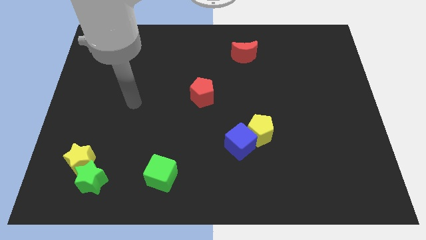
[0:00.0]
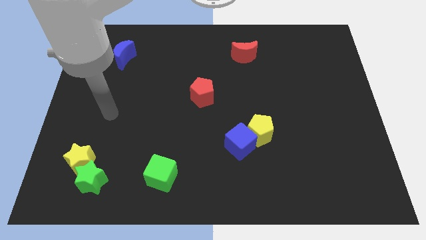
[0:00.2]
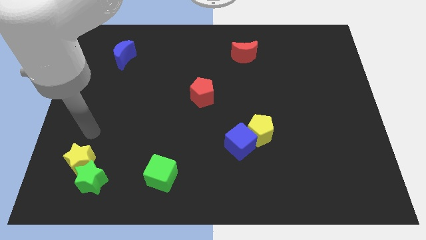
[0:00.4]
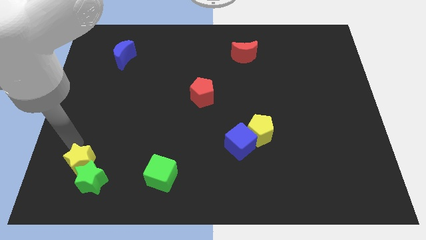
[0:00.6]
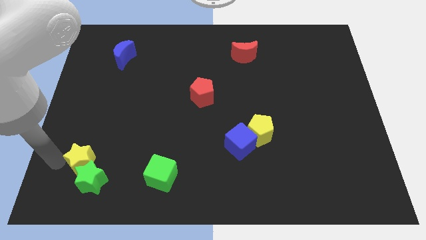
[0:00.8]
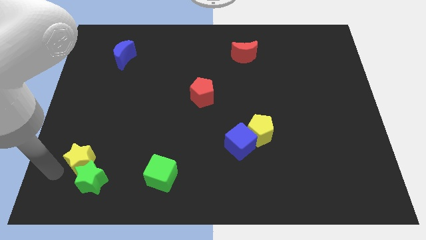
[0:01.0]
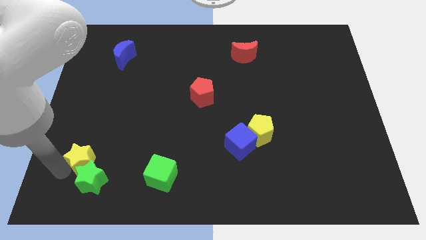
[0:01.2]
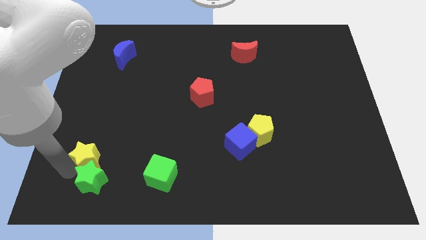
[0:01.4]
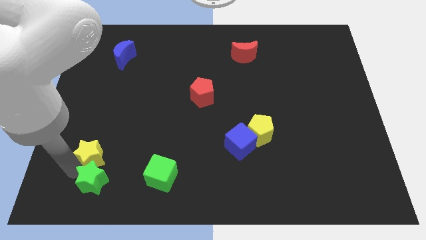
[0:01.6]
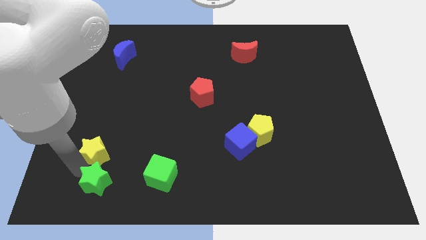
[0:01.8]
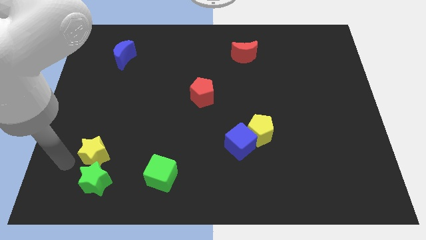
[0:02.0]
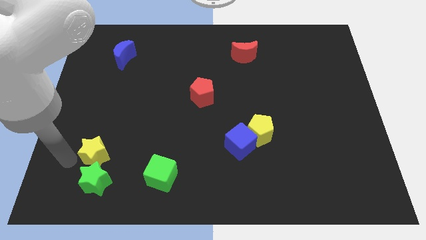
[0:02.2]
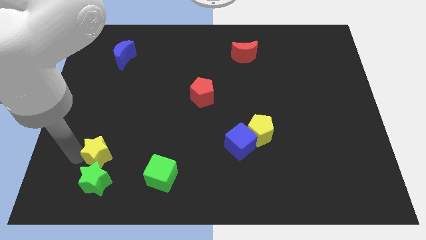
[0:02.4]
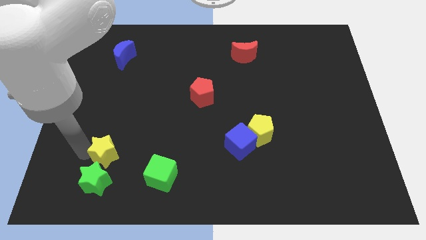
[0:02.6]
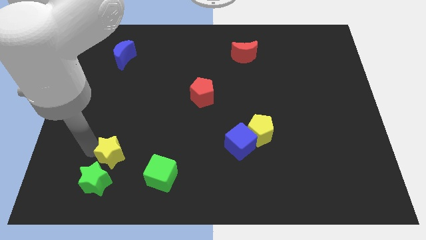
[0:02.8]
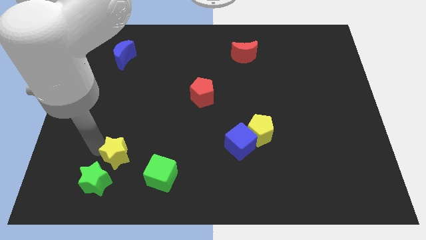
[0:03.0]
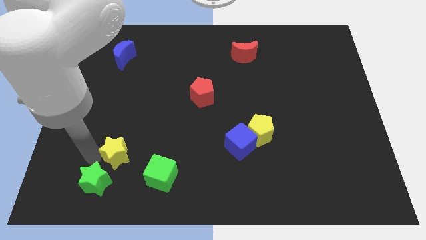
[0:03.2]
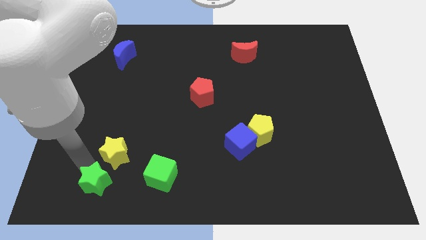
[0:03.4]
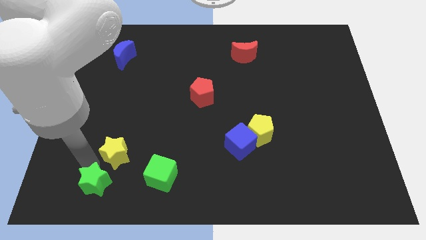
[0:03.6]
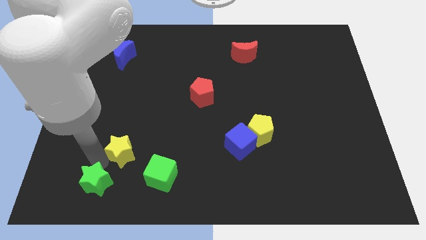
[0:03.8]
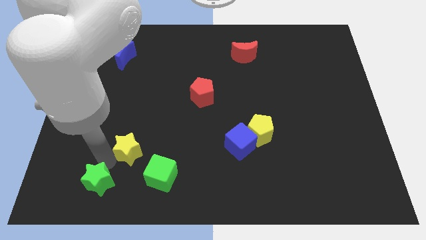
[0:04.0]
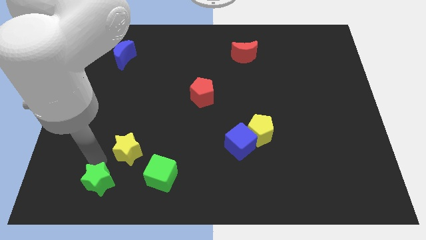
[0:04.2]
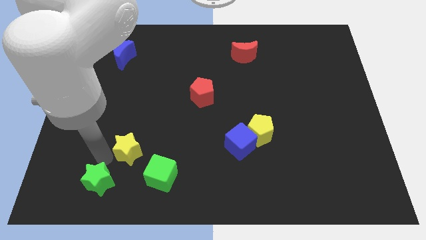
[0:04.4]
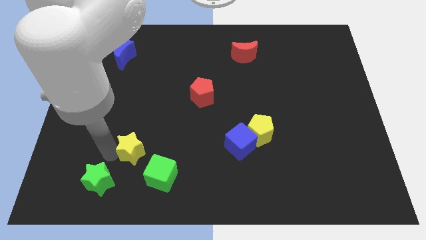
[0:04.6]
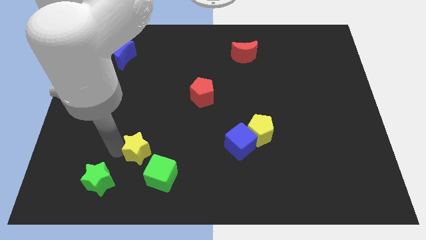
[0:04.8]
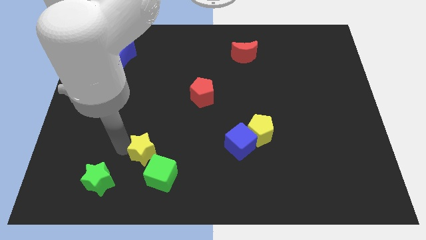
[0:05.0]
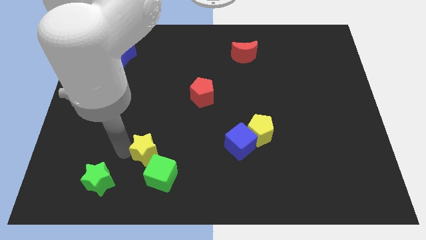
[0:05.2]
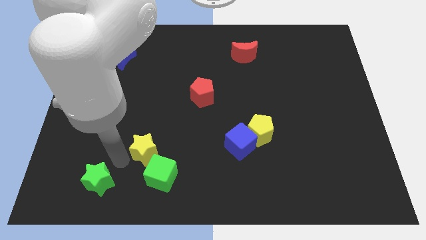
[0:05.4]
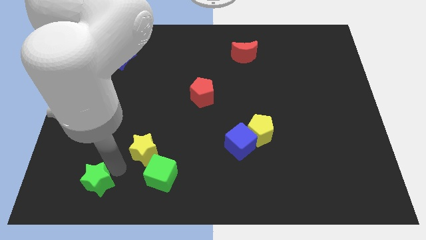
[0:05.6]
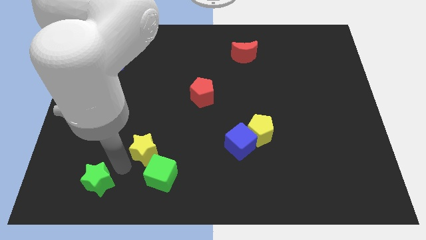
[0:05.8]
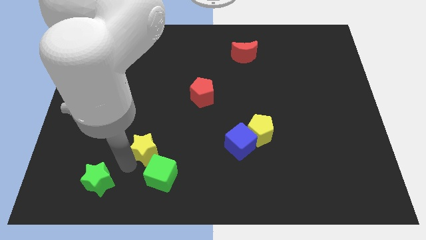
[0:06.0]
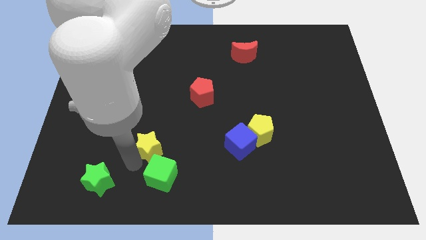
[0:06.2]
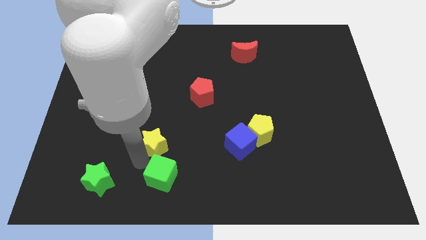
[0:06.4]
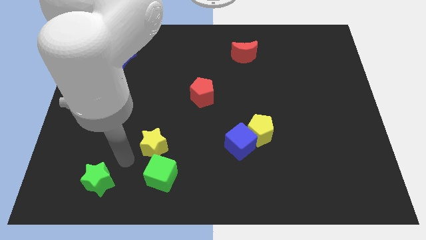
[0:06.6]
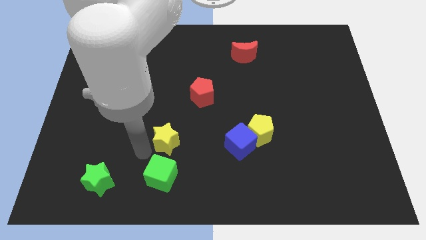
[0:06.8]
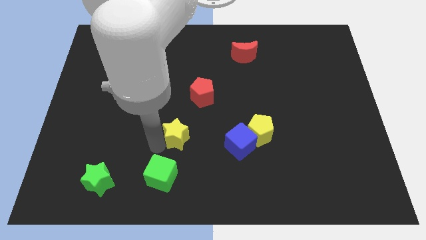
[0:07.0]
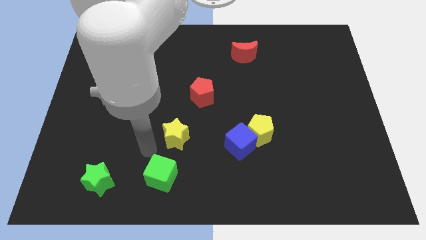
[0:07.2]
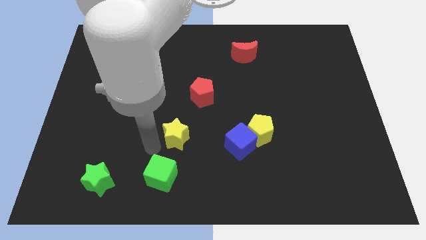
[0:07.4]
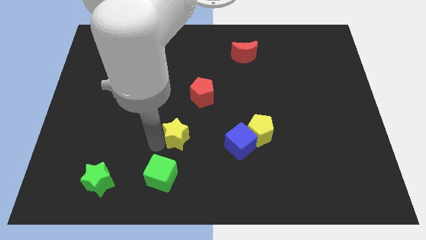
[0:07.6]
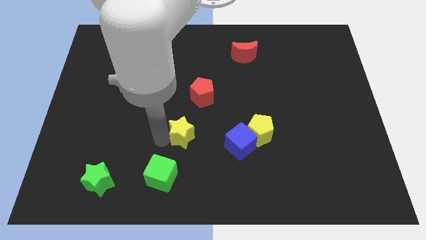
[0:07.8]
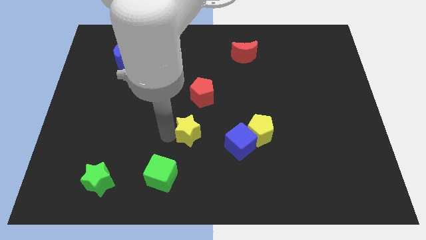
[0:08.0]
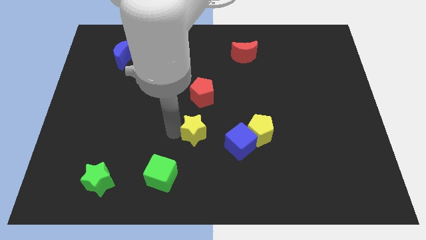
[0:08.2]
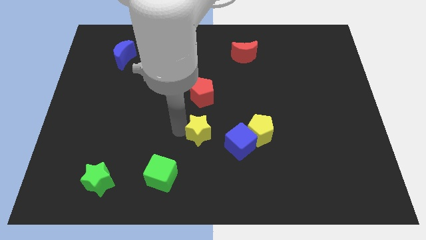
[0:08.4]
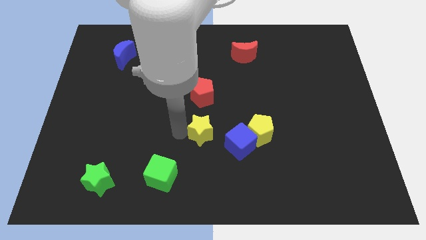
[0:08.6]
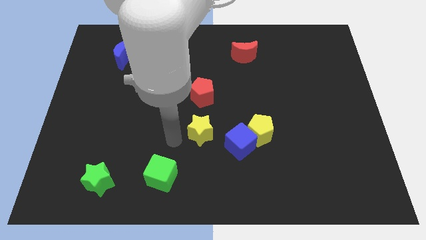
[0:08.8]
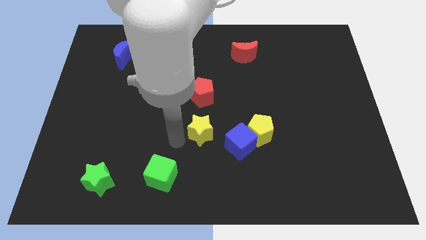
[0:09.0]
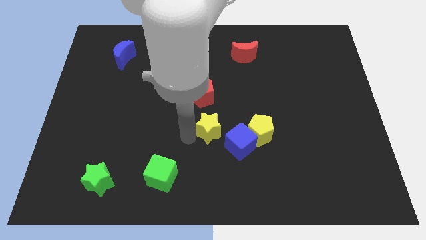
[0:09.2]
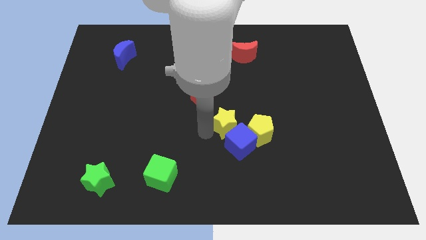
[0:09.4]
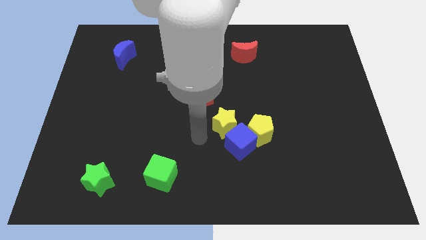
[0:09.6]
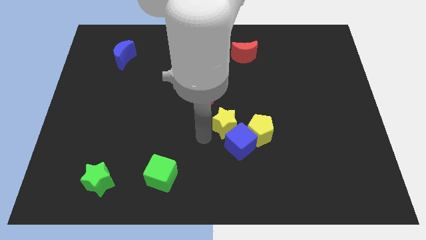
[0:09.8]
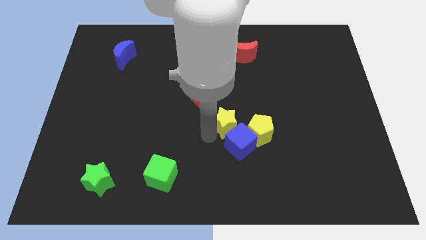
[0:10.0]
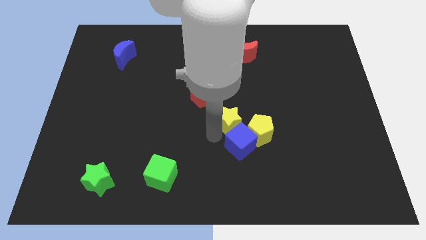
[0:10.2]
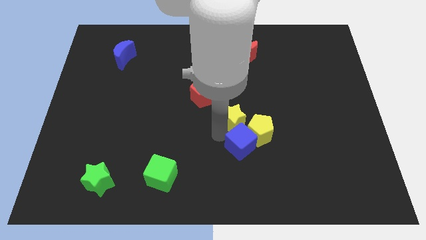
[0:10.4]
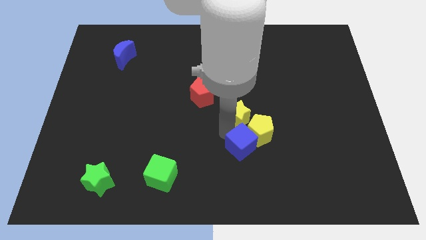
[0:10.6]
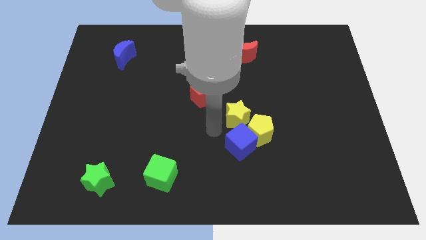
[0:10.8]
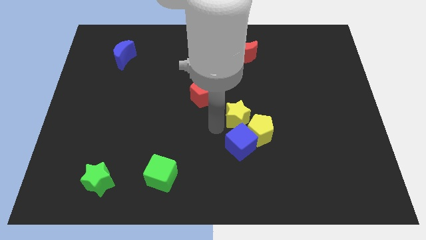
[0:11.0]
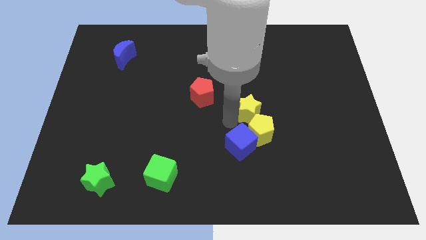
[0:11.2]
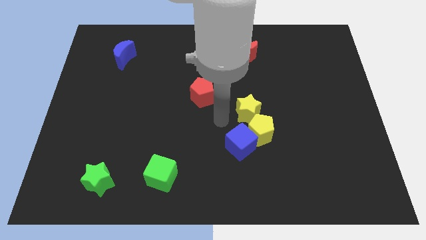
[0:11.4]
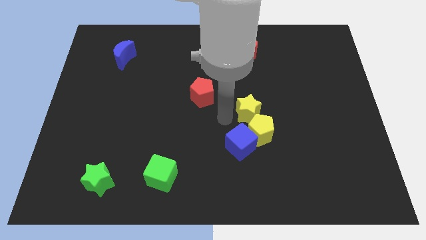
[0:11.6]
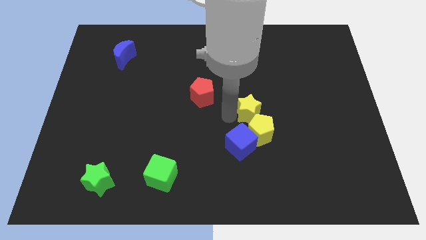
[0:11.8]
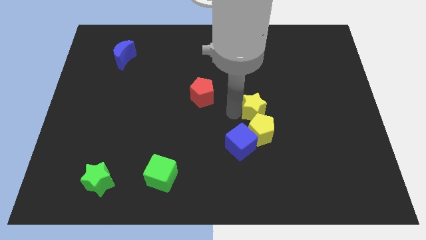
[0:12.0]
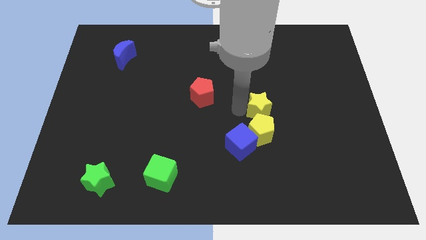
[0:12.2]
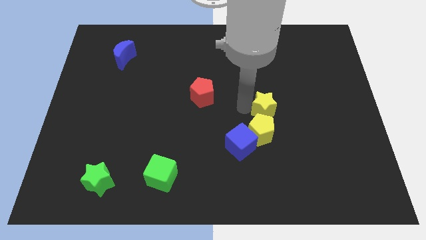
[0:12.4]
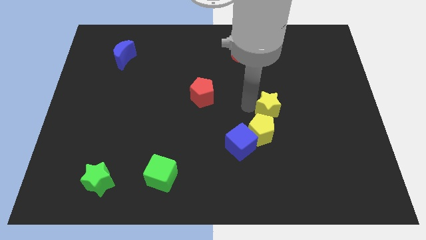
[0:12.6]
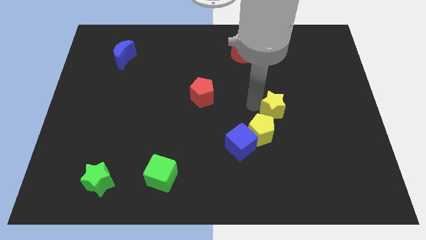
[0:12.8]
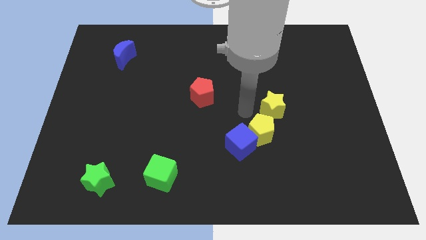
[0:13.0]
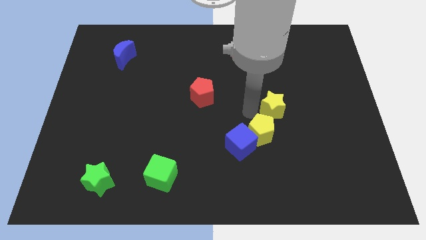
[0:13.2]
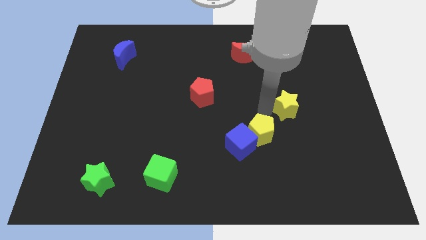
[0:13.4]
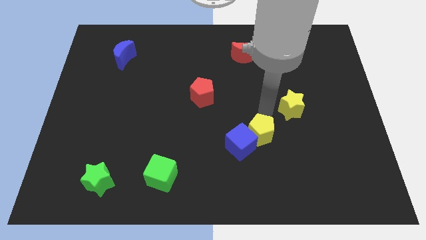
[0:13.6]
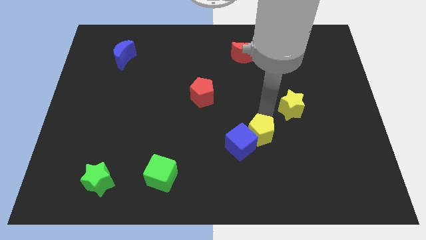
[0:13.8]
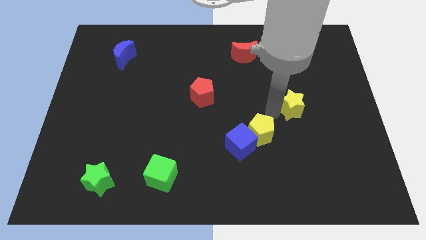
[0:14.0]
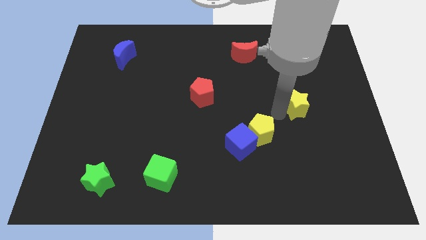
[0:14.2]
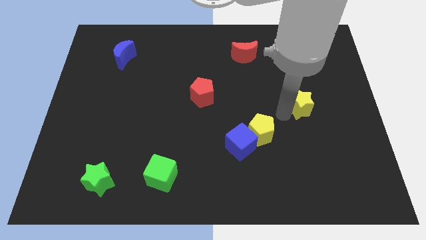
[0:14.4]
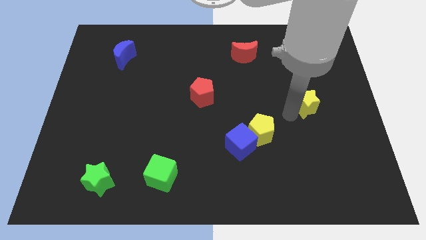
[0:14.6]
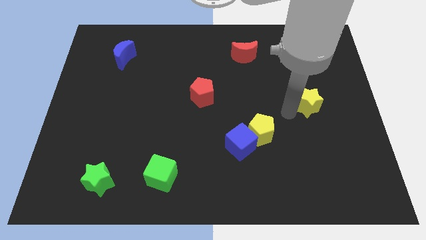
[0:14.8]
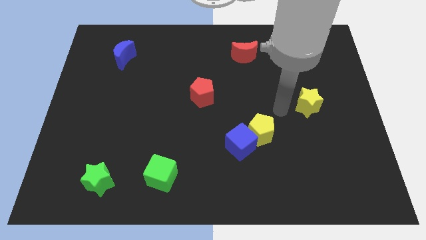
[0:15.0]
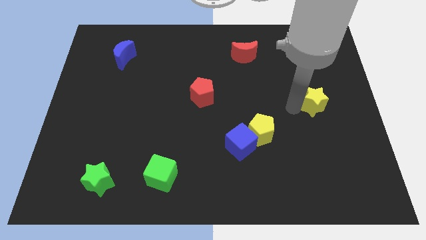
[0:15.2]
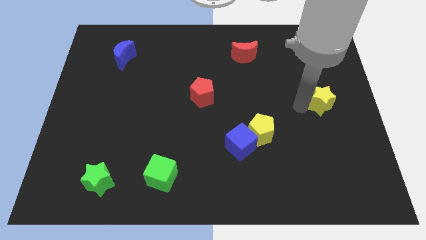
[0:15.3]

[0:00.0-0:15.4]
put the yellow star to the center right
